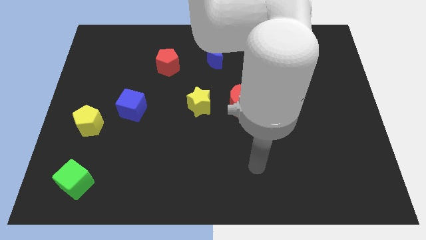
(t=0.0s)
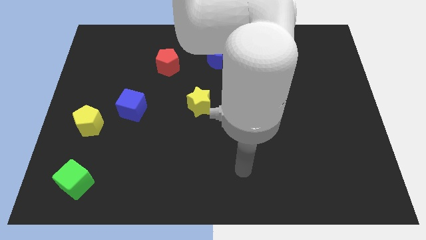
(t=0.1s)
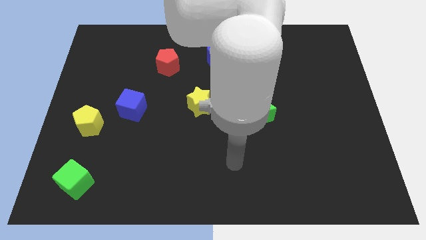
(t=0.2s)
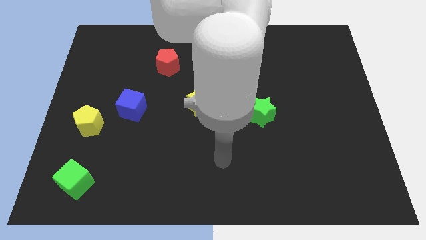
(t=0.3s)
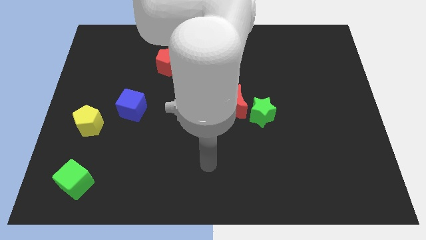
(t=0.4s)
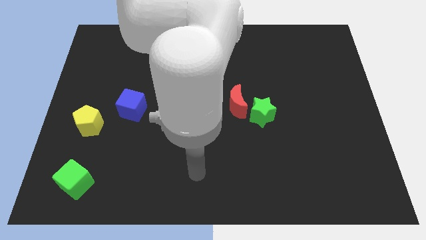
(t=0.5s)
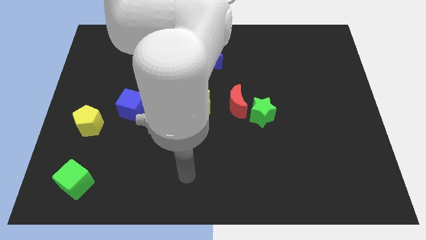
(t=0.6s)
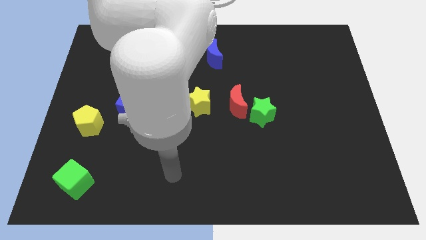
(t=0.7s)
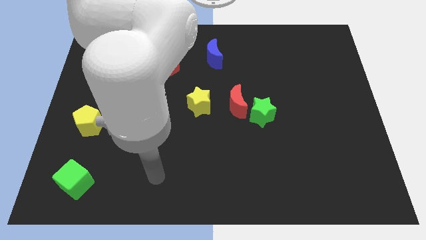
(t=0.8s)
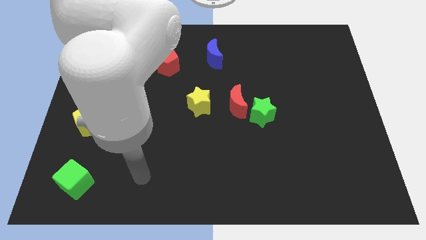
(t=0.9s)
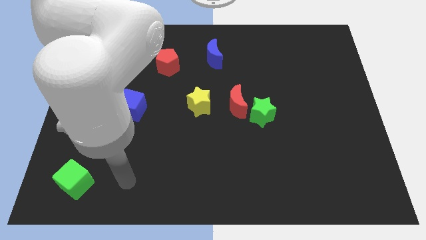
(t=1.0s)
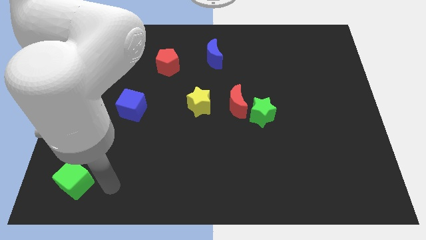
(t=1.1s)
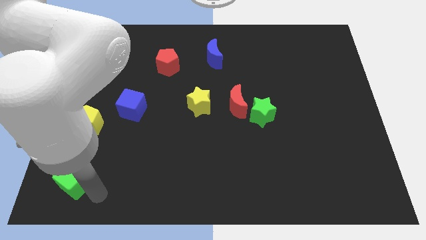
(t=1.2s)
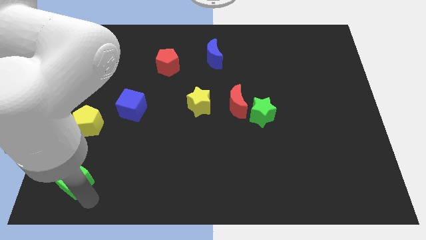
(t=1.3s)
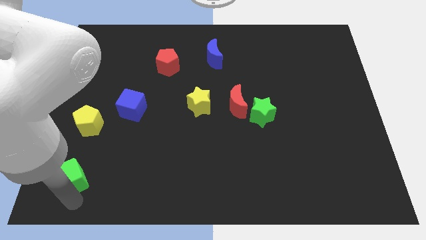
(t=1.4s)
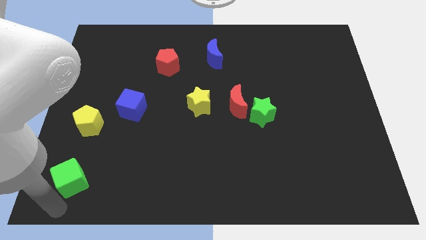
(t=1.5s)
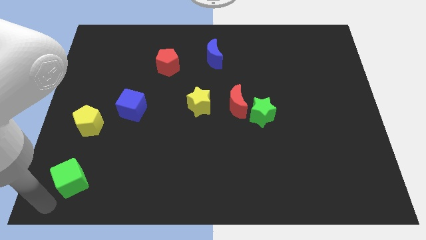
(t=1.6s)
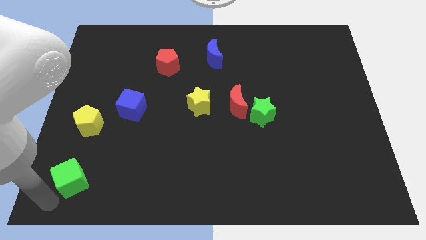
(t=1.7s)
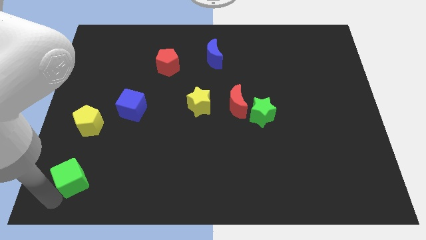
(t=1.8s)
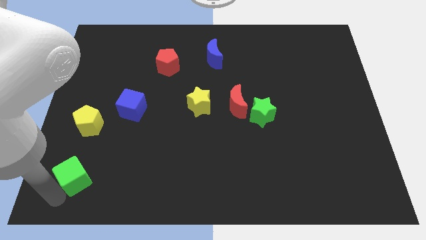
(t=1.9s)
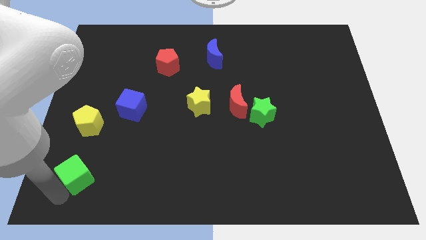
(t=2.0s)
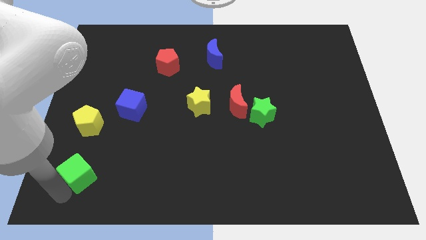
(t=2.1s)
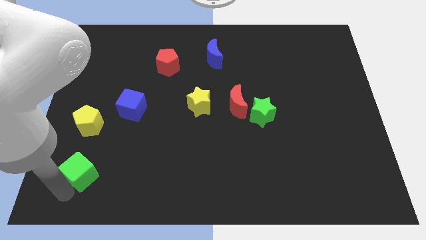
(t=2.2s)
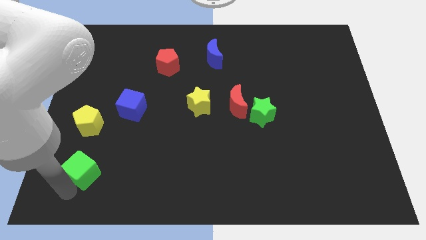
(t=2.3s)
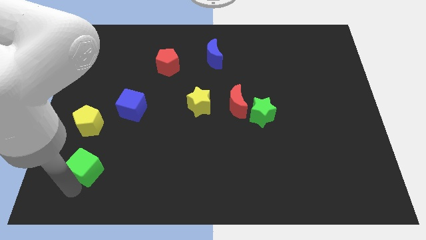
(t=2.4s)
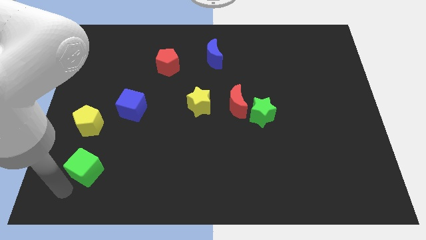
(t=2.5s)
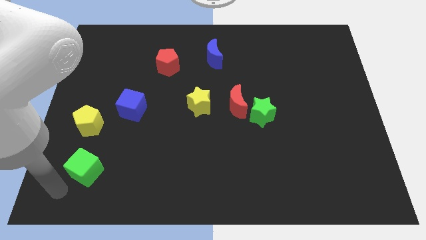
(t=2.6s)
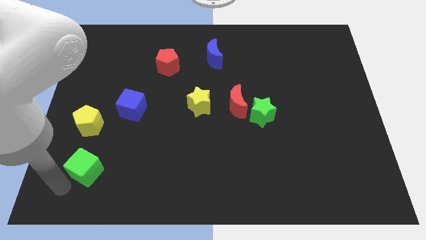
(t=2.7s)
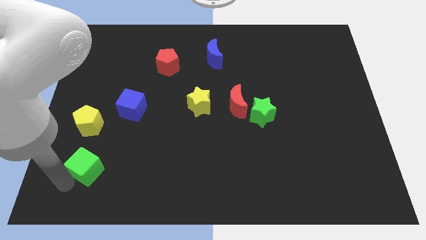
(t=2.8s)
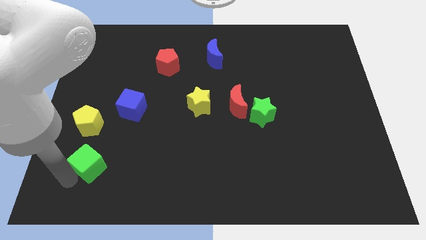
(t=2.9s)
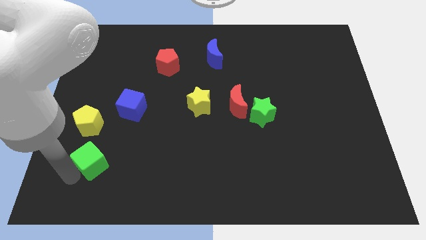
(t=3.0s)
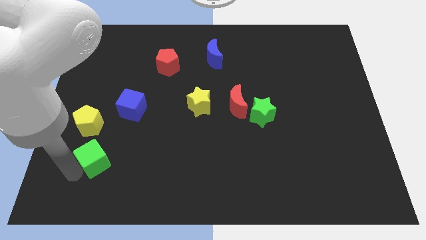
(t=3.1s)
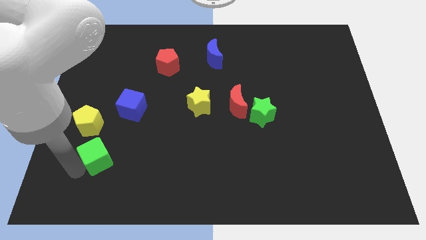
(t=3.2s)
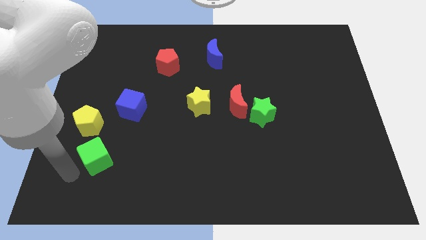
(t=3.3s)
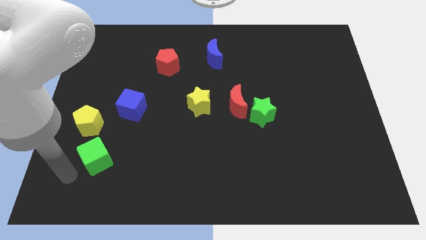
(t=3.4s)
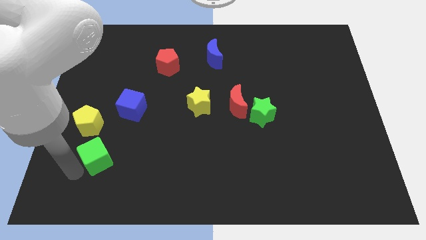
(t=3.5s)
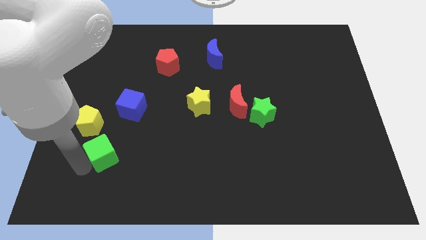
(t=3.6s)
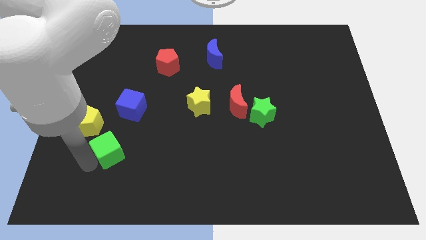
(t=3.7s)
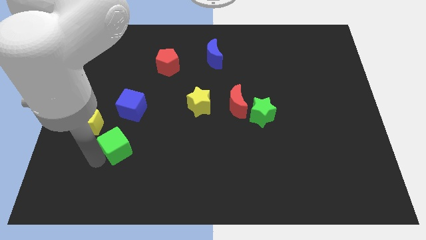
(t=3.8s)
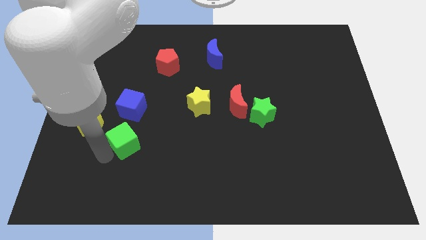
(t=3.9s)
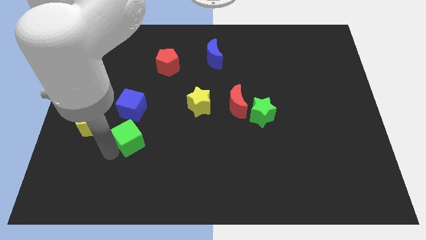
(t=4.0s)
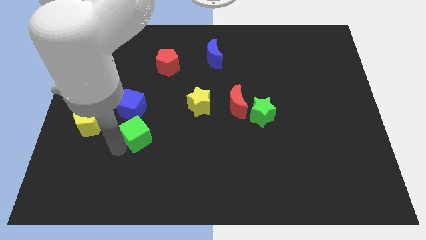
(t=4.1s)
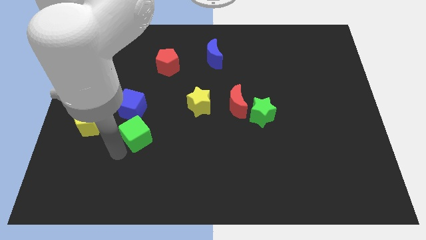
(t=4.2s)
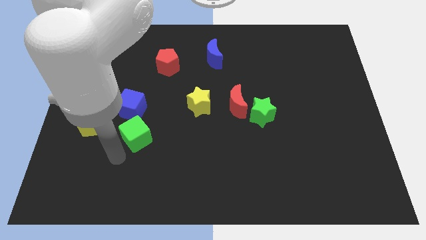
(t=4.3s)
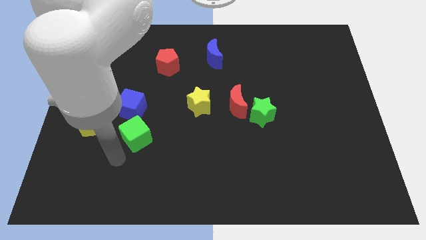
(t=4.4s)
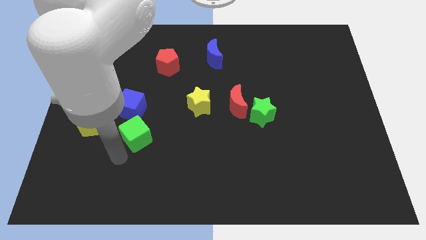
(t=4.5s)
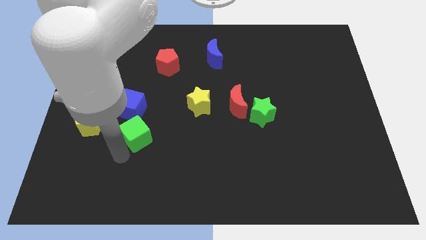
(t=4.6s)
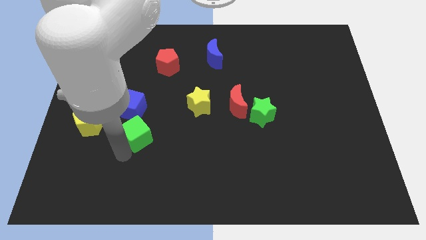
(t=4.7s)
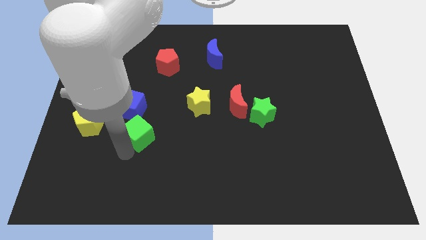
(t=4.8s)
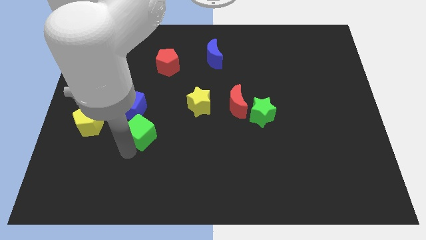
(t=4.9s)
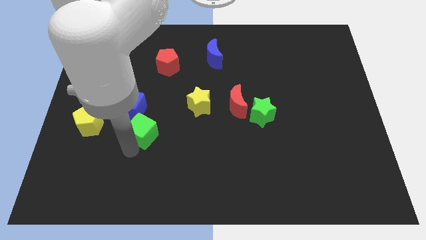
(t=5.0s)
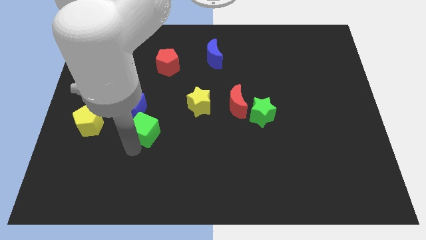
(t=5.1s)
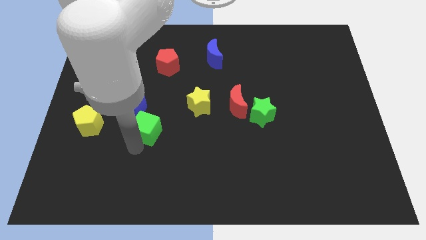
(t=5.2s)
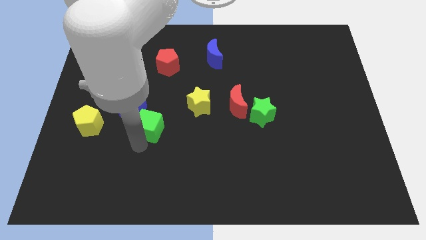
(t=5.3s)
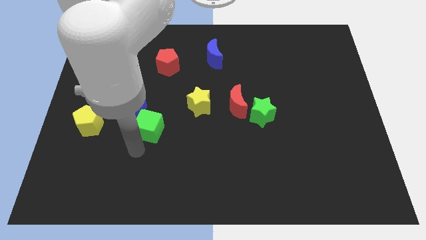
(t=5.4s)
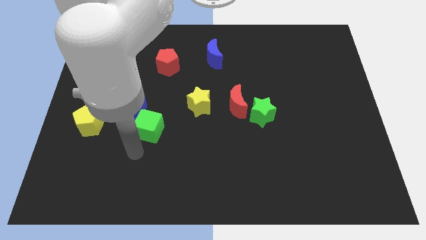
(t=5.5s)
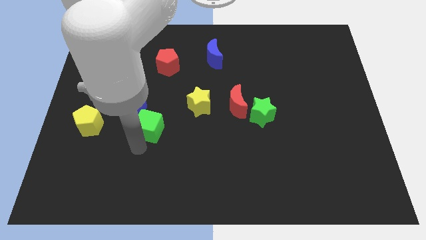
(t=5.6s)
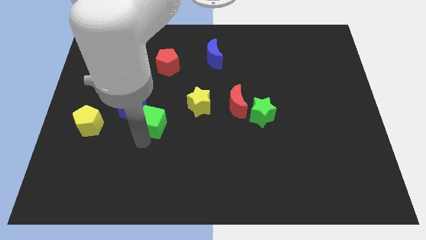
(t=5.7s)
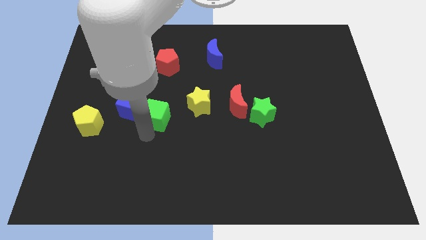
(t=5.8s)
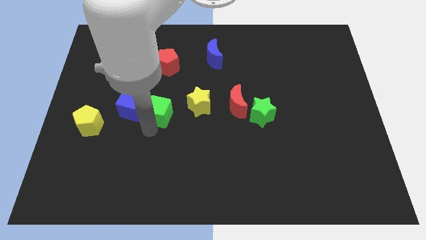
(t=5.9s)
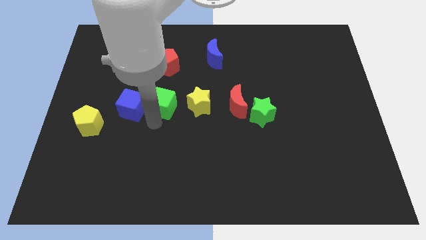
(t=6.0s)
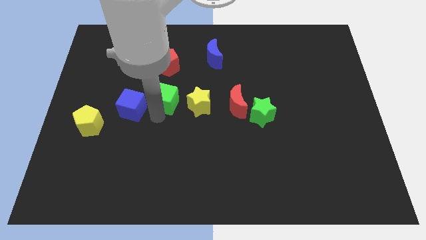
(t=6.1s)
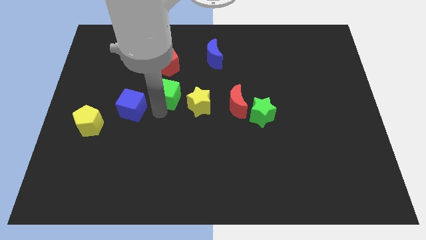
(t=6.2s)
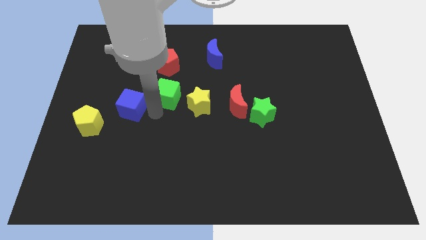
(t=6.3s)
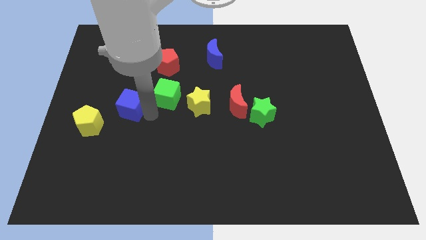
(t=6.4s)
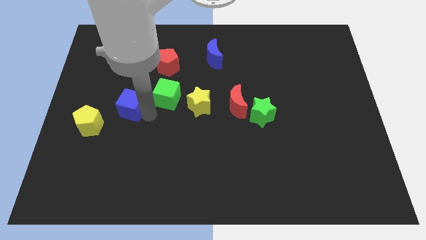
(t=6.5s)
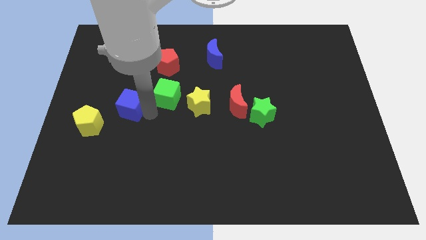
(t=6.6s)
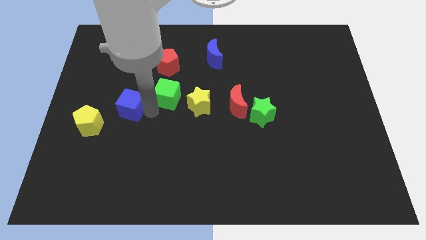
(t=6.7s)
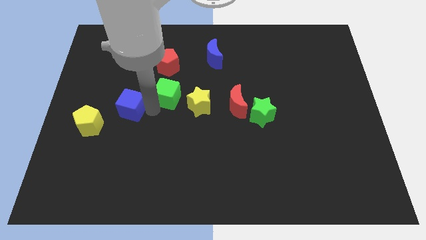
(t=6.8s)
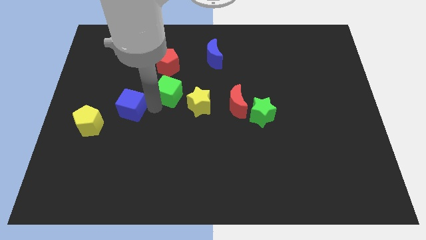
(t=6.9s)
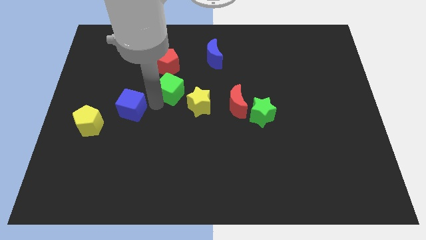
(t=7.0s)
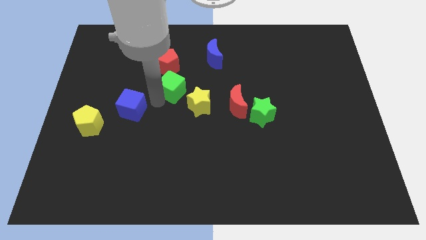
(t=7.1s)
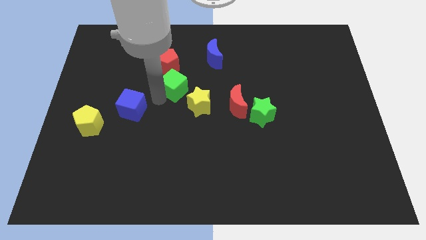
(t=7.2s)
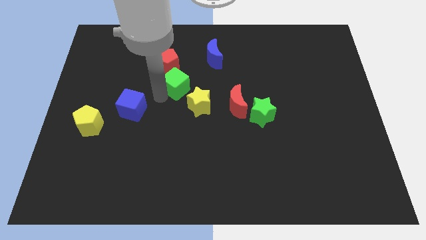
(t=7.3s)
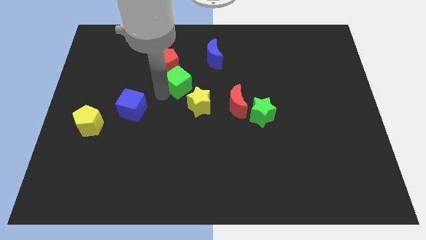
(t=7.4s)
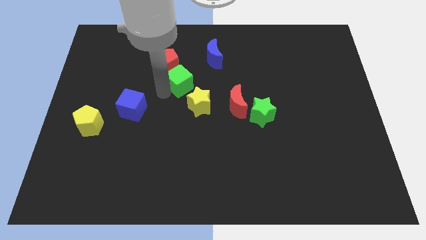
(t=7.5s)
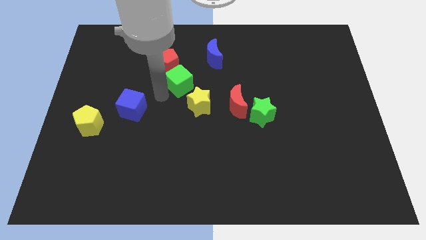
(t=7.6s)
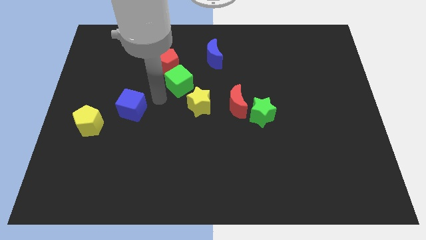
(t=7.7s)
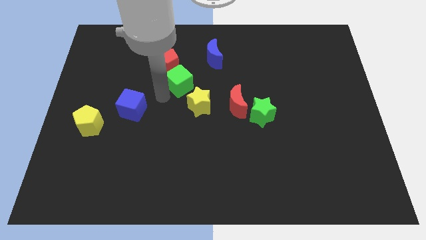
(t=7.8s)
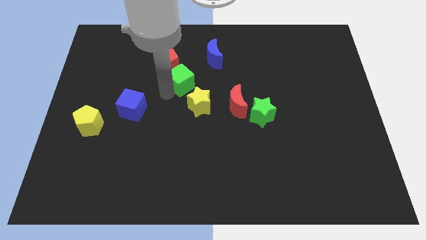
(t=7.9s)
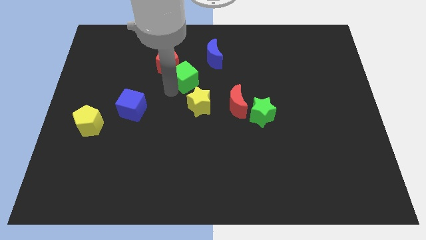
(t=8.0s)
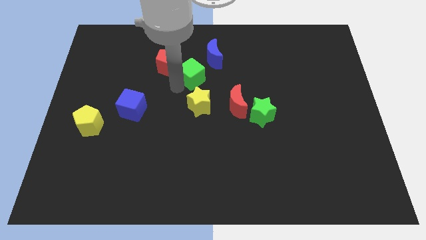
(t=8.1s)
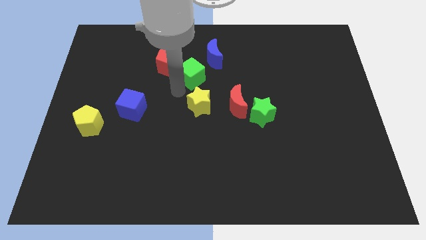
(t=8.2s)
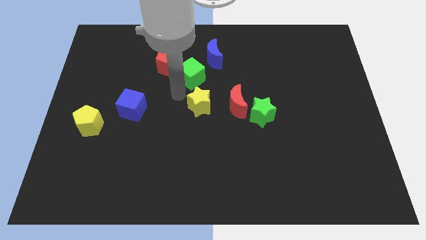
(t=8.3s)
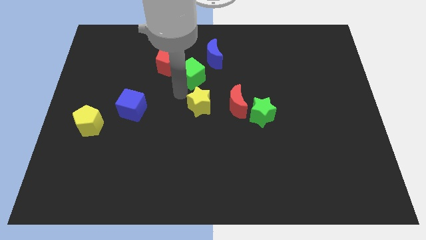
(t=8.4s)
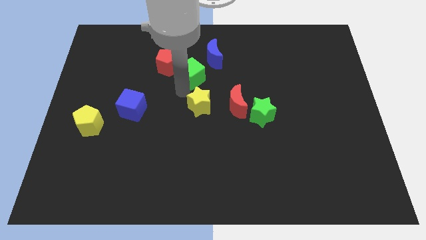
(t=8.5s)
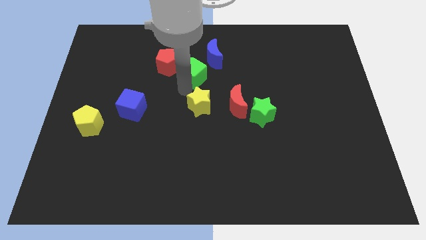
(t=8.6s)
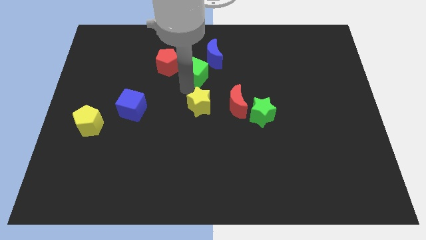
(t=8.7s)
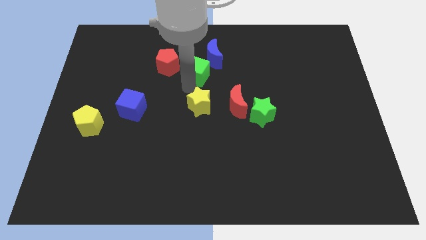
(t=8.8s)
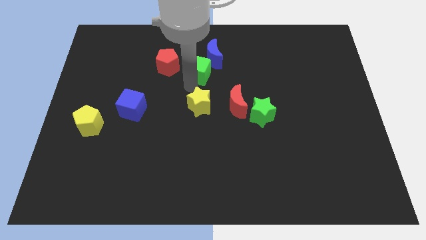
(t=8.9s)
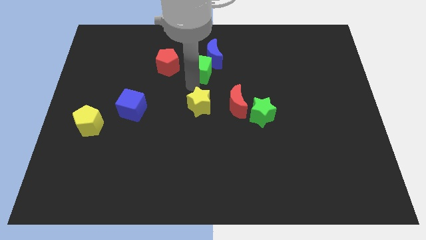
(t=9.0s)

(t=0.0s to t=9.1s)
push the green cube to the blue moon
